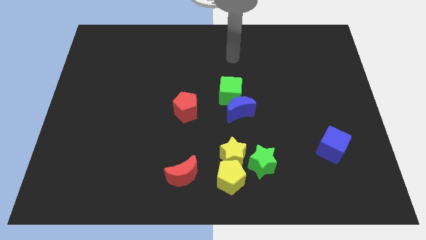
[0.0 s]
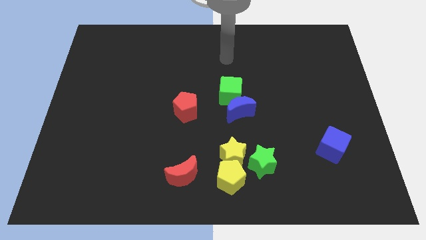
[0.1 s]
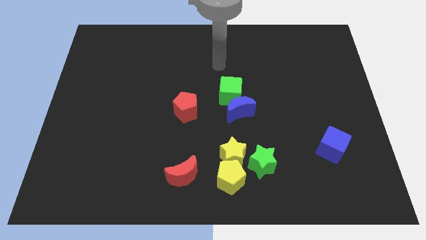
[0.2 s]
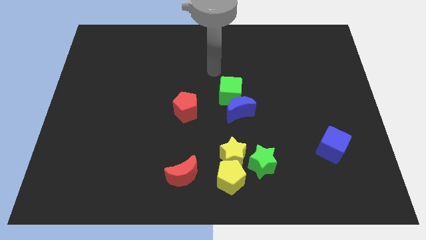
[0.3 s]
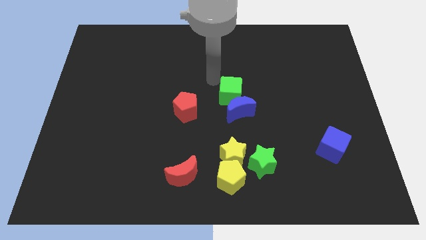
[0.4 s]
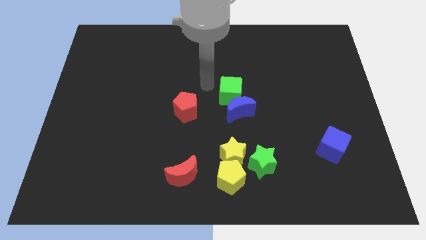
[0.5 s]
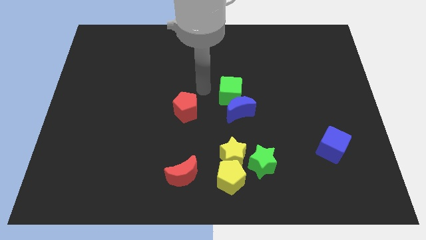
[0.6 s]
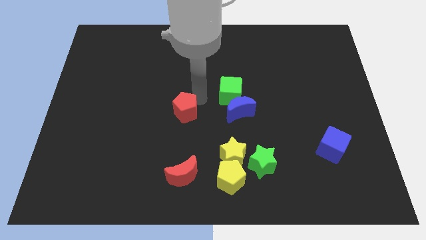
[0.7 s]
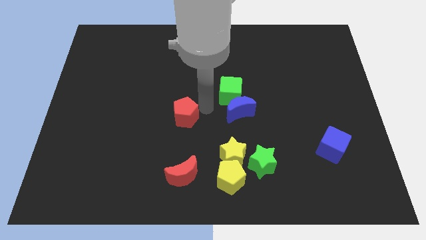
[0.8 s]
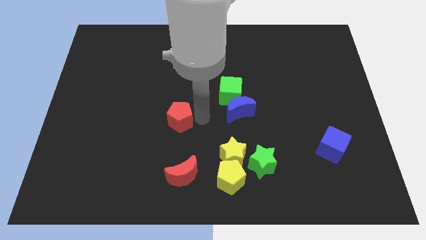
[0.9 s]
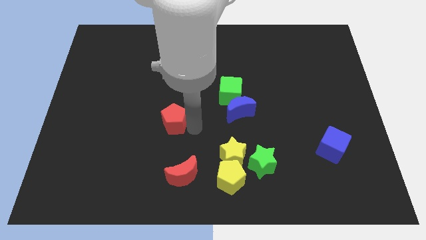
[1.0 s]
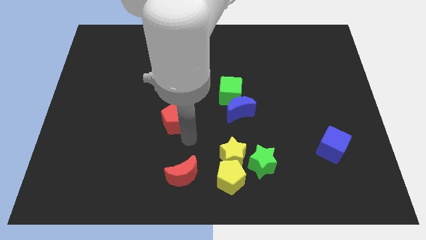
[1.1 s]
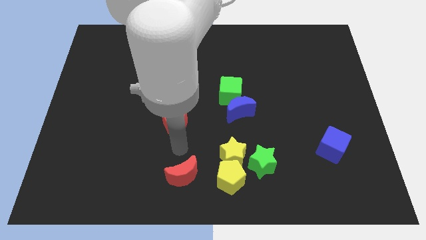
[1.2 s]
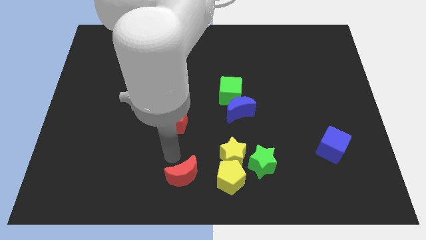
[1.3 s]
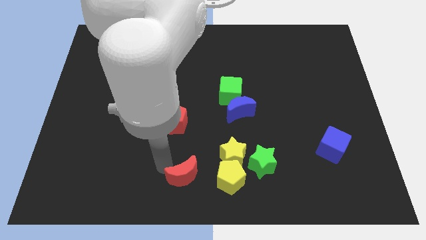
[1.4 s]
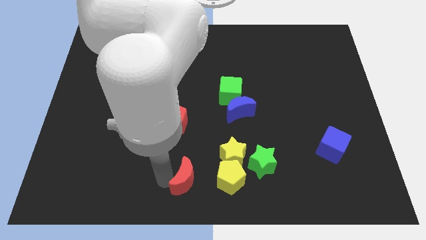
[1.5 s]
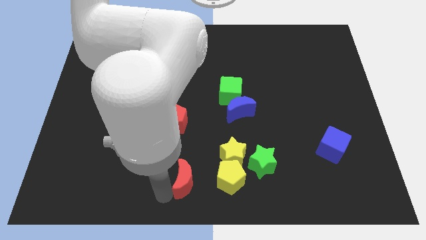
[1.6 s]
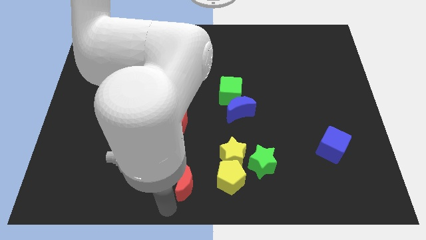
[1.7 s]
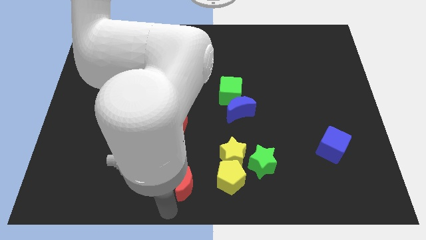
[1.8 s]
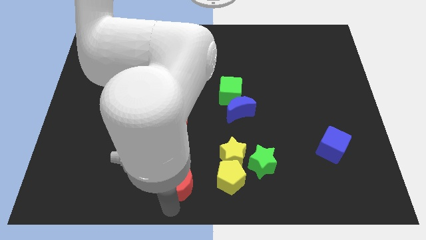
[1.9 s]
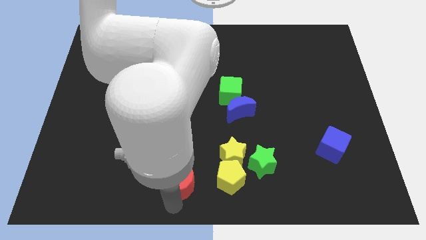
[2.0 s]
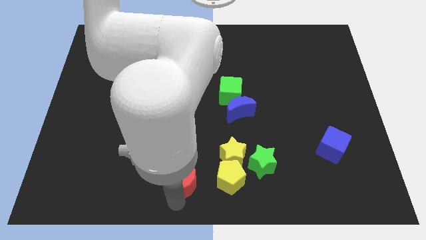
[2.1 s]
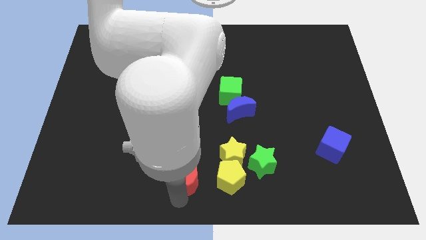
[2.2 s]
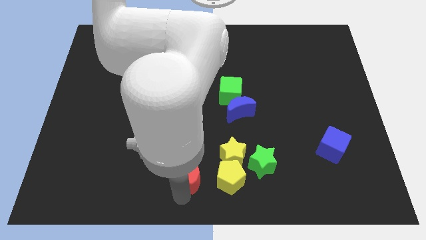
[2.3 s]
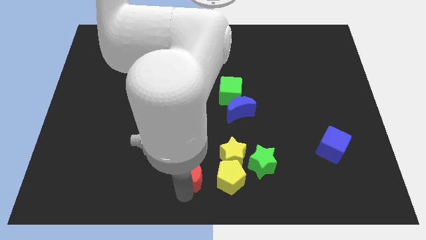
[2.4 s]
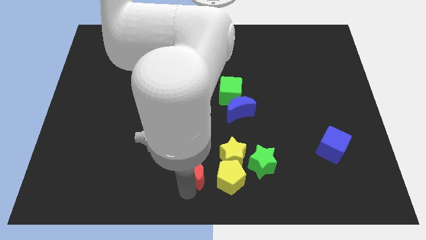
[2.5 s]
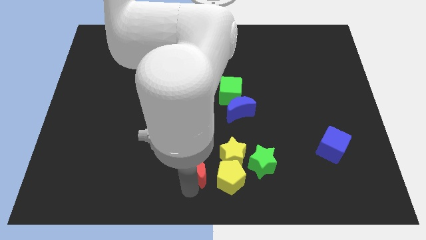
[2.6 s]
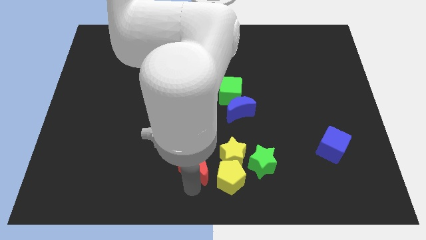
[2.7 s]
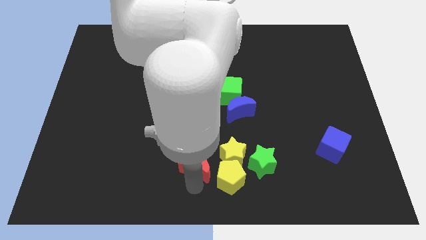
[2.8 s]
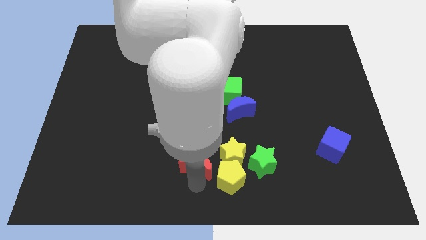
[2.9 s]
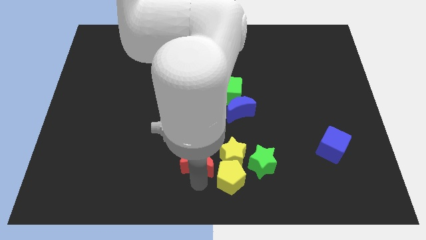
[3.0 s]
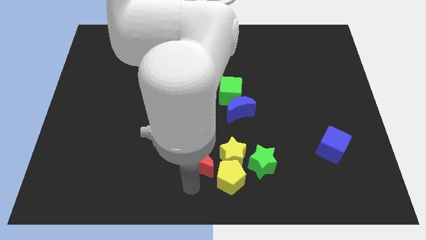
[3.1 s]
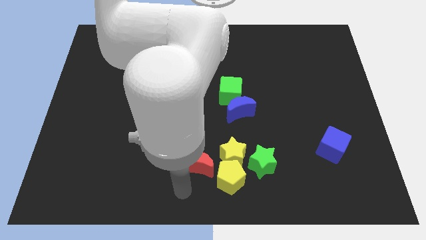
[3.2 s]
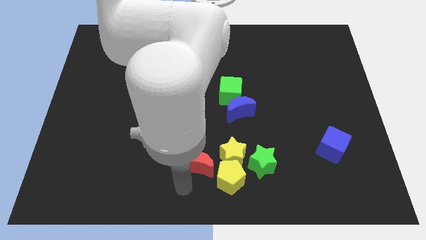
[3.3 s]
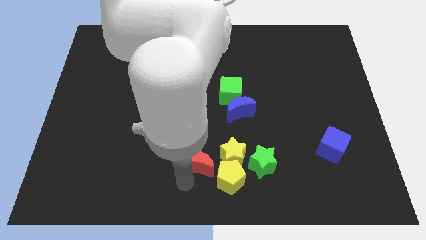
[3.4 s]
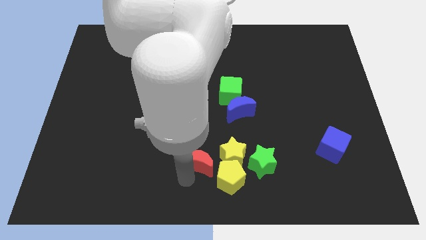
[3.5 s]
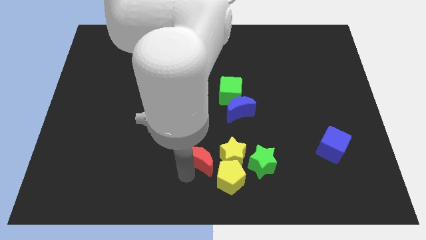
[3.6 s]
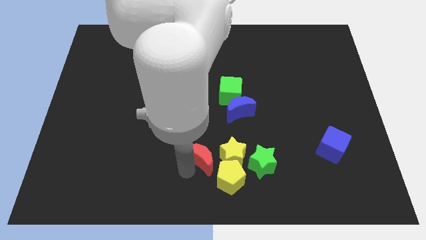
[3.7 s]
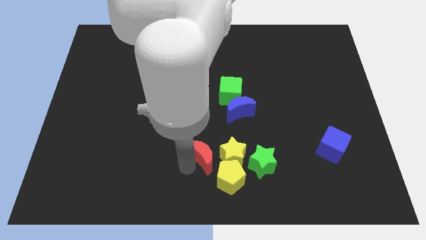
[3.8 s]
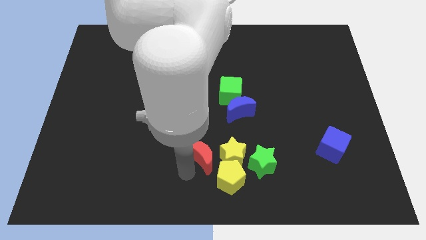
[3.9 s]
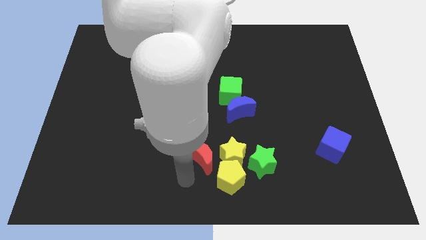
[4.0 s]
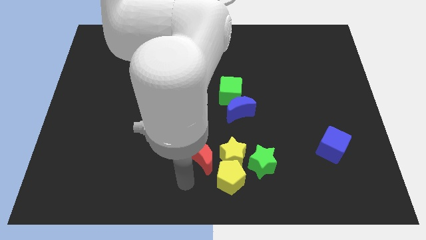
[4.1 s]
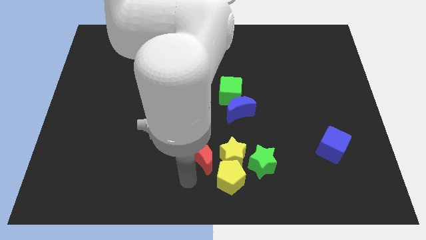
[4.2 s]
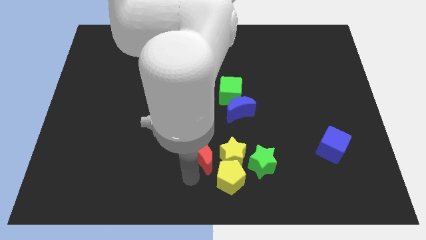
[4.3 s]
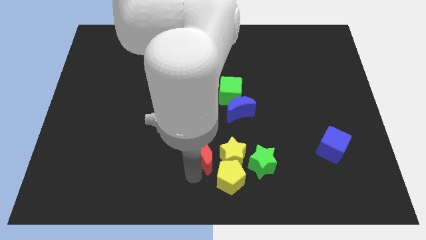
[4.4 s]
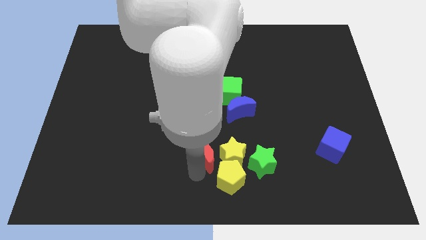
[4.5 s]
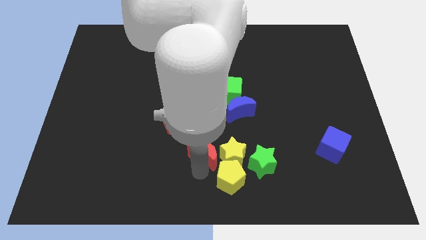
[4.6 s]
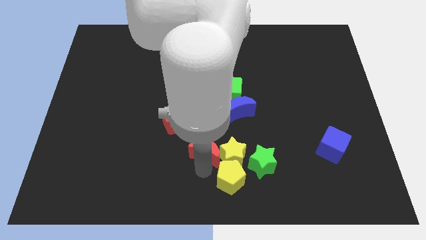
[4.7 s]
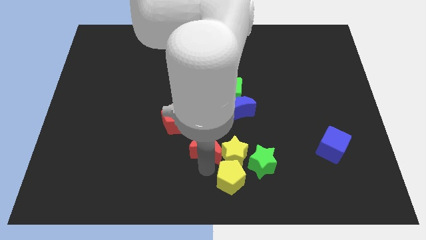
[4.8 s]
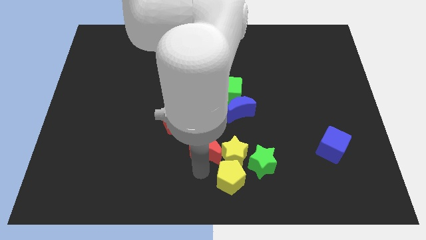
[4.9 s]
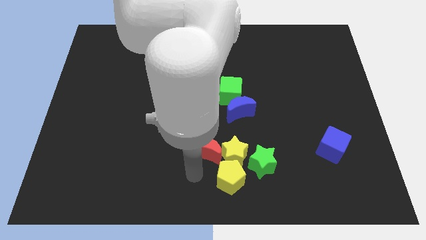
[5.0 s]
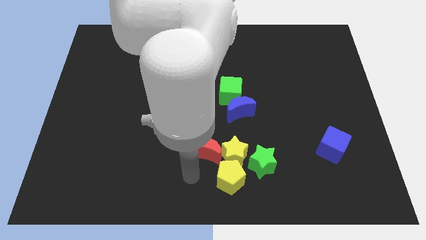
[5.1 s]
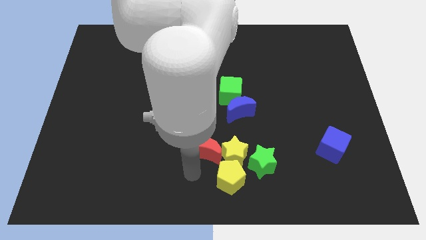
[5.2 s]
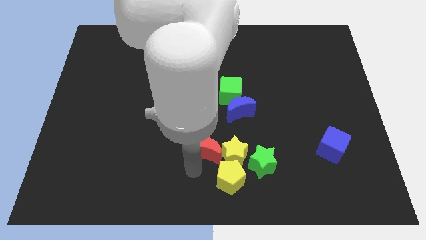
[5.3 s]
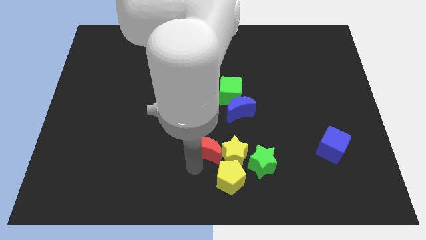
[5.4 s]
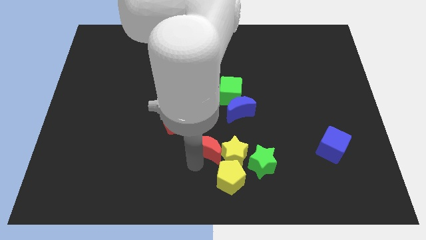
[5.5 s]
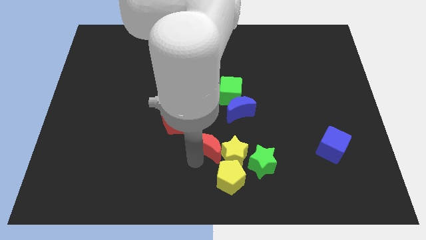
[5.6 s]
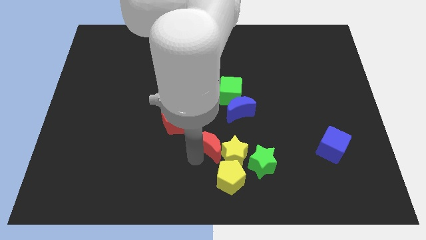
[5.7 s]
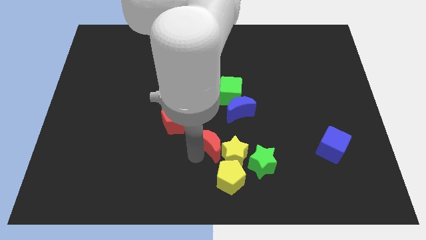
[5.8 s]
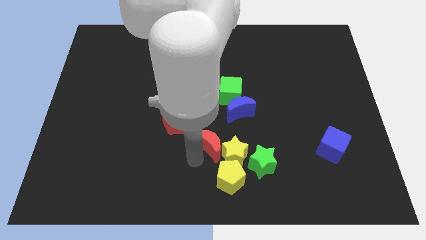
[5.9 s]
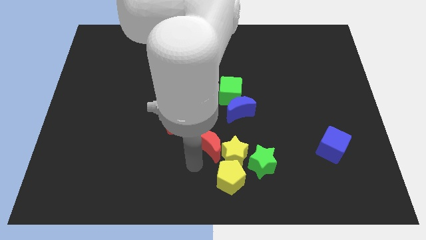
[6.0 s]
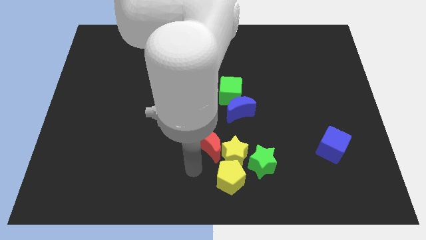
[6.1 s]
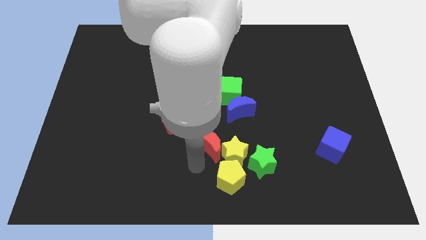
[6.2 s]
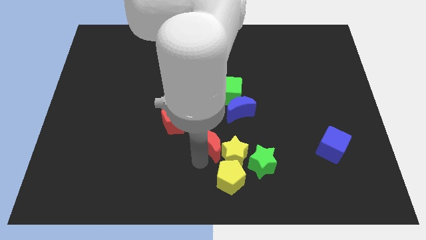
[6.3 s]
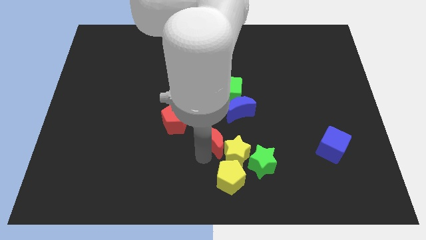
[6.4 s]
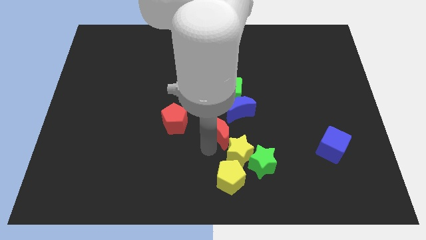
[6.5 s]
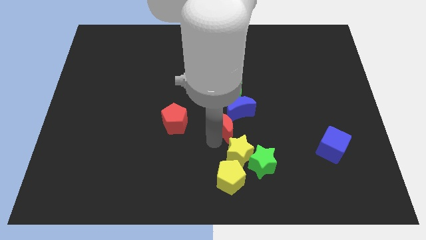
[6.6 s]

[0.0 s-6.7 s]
put the red moon towards the blue moon
